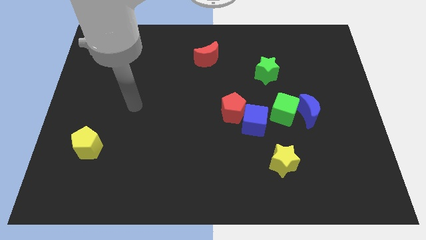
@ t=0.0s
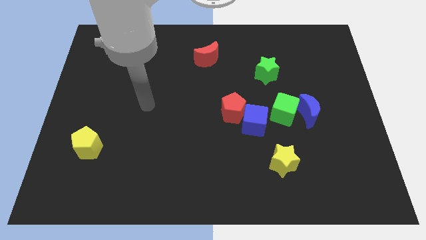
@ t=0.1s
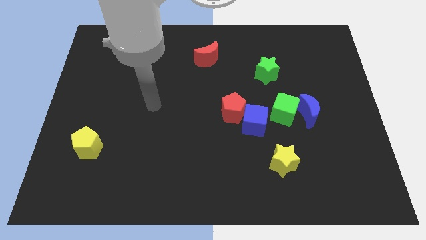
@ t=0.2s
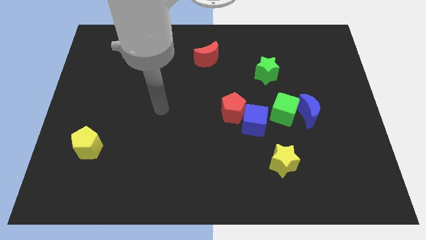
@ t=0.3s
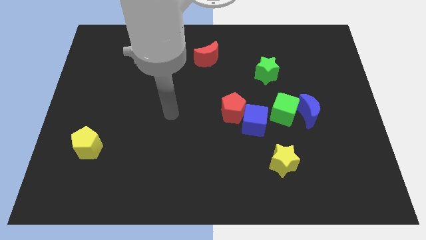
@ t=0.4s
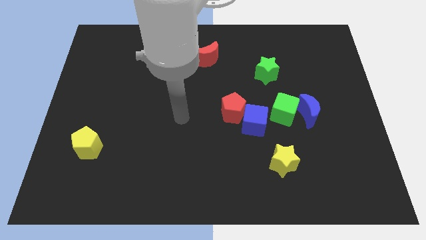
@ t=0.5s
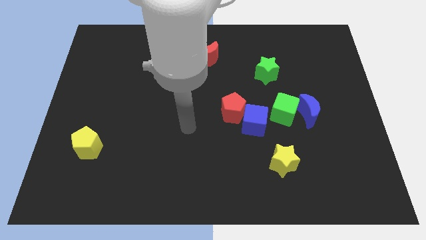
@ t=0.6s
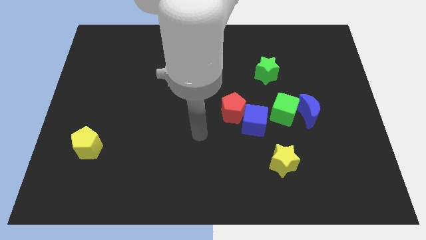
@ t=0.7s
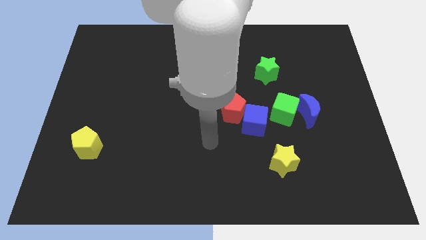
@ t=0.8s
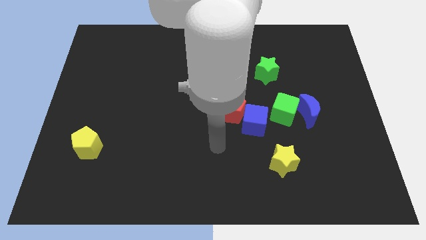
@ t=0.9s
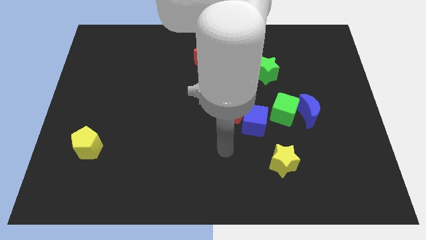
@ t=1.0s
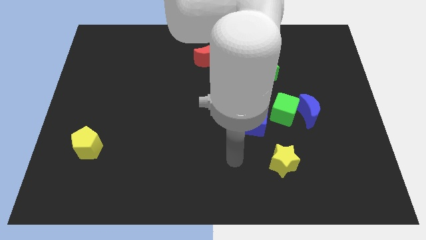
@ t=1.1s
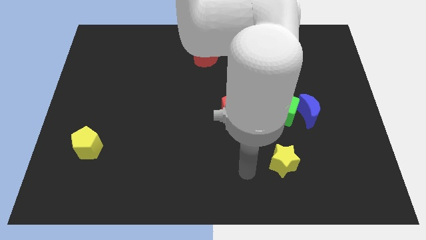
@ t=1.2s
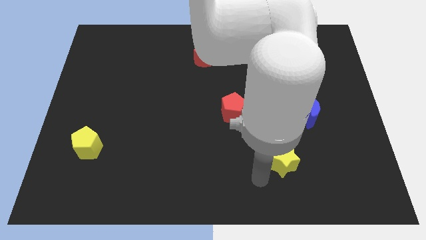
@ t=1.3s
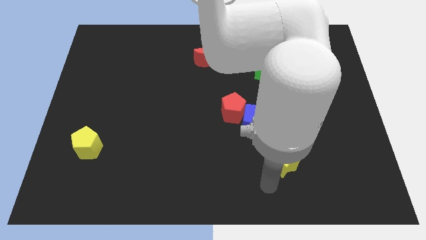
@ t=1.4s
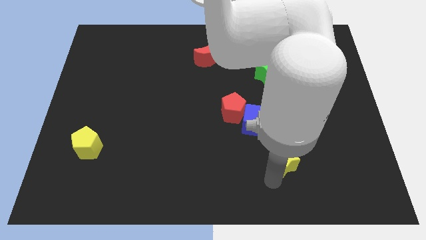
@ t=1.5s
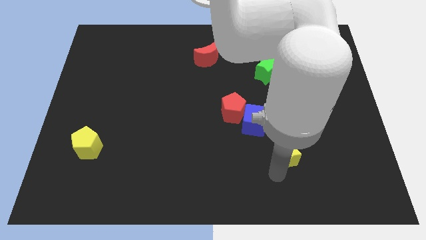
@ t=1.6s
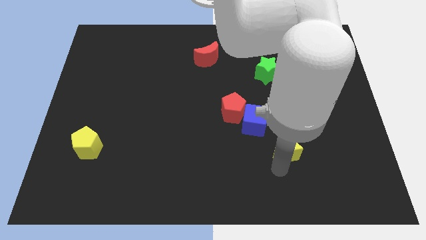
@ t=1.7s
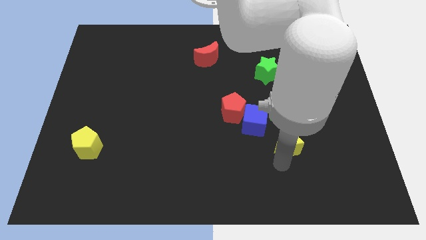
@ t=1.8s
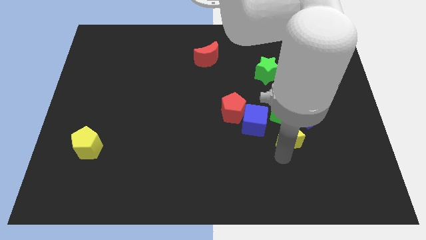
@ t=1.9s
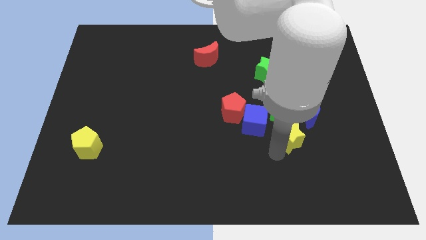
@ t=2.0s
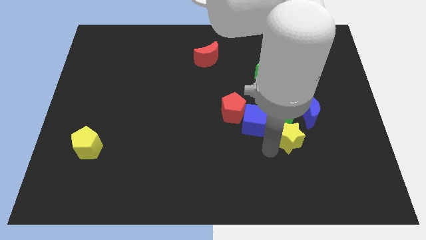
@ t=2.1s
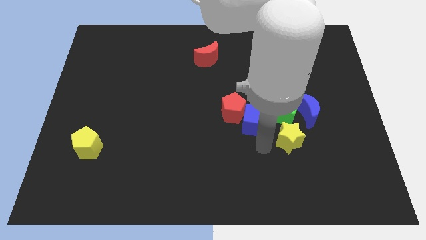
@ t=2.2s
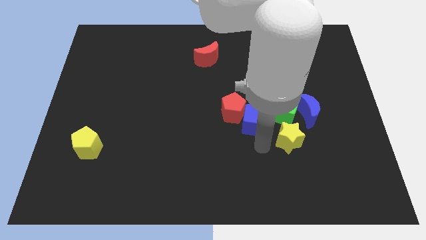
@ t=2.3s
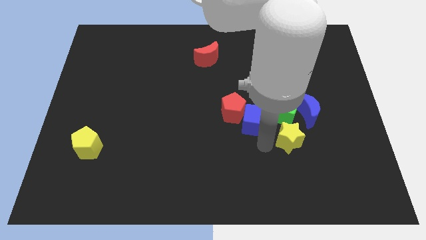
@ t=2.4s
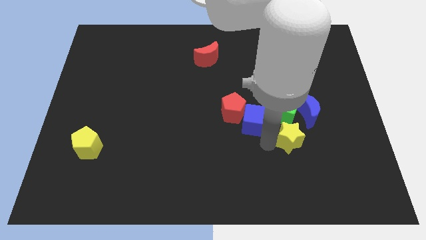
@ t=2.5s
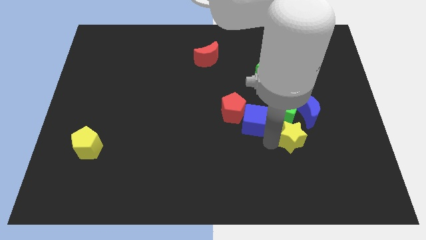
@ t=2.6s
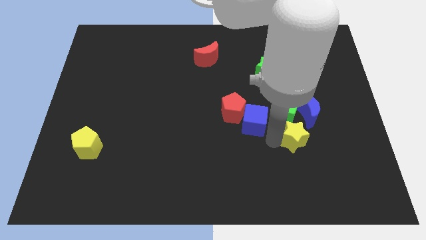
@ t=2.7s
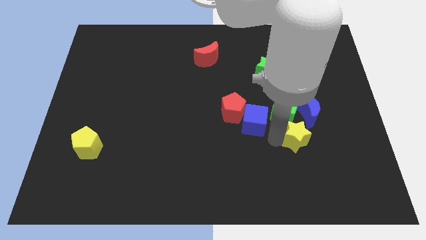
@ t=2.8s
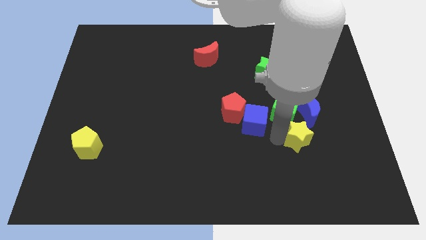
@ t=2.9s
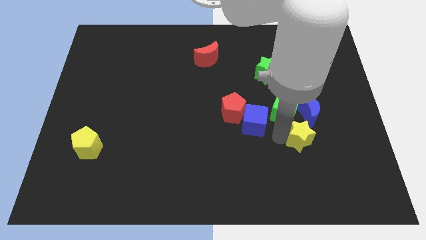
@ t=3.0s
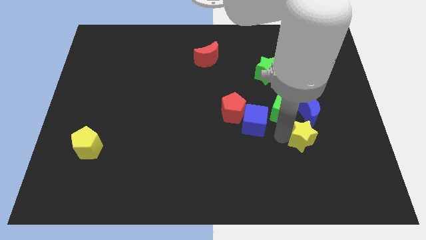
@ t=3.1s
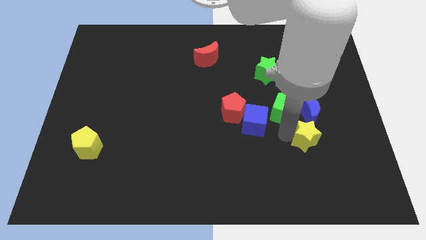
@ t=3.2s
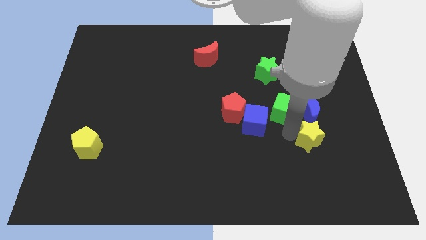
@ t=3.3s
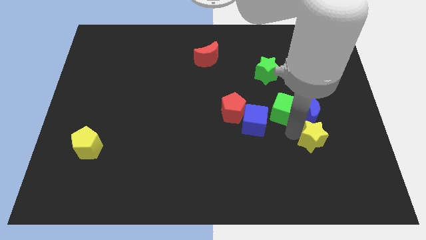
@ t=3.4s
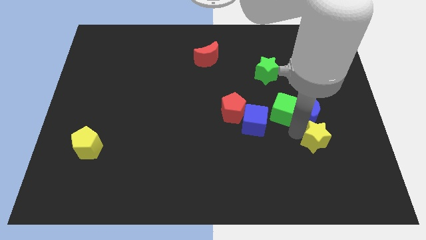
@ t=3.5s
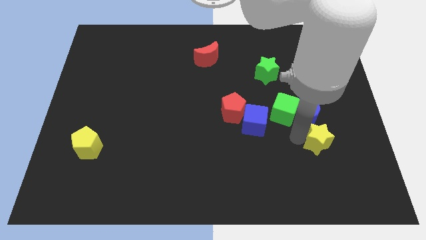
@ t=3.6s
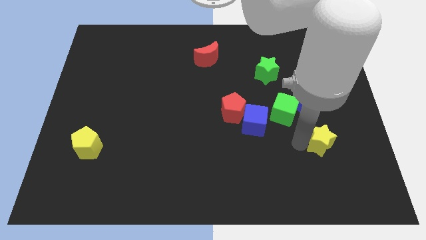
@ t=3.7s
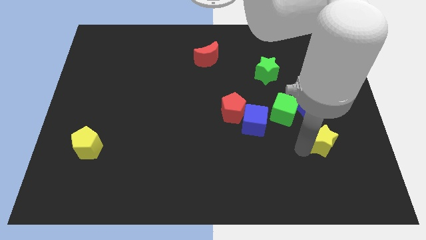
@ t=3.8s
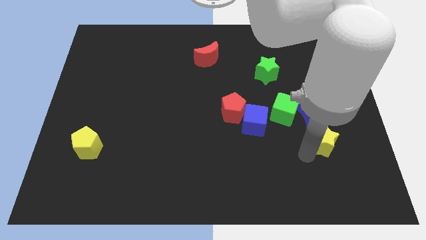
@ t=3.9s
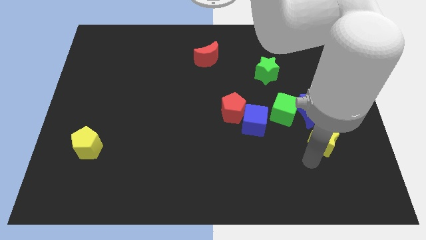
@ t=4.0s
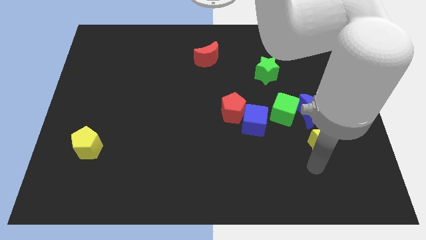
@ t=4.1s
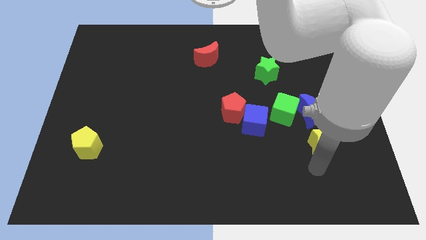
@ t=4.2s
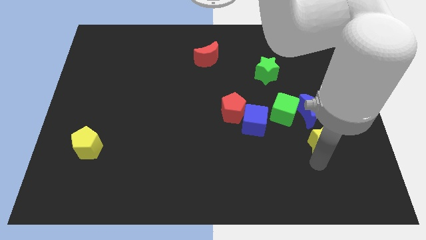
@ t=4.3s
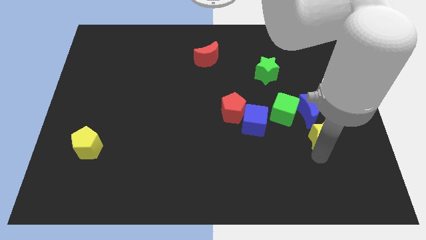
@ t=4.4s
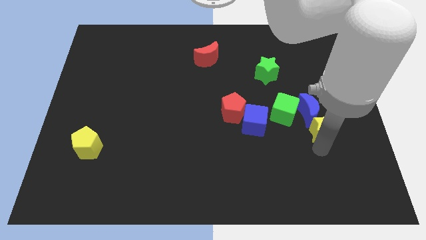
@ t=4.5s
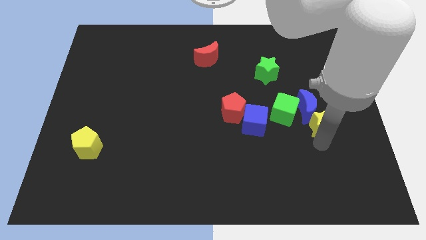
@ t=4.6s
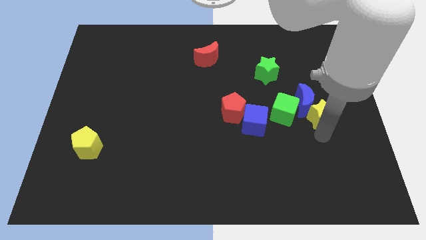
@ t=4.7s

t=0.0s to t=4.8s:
move the yellow star up a bit

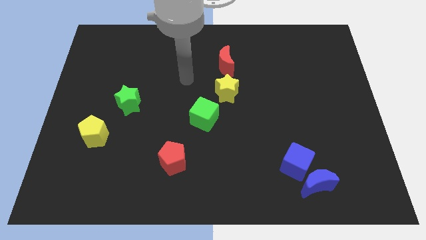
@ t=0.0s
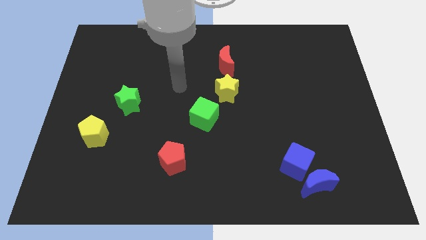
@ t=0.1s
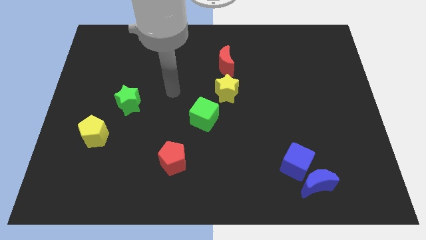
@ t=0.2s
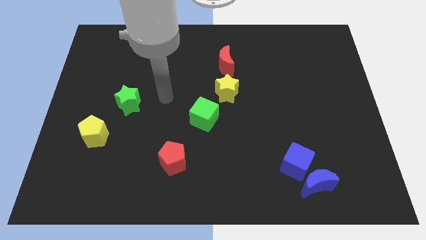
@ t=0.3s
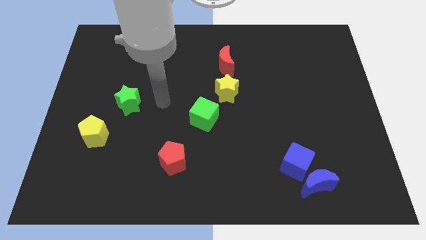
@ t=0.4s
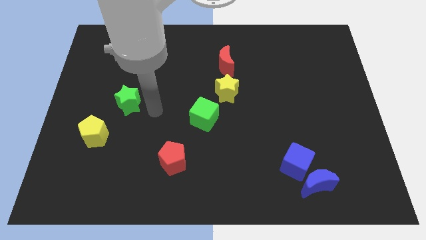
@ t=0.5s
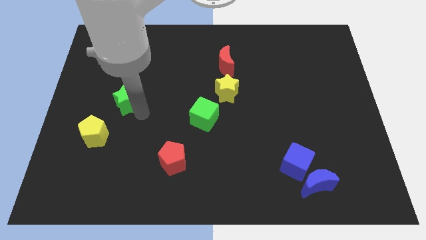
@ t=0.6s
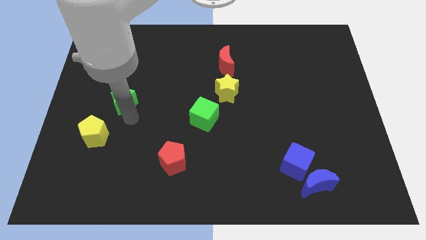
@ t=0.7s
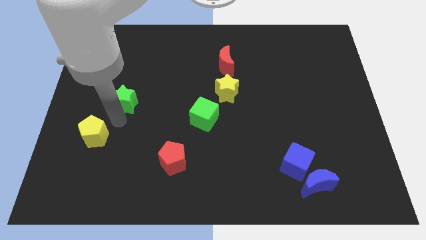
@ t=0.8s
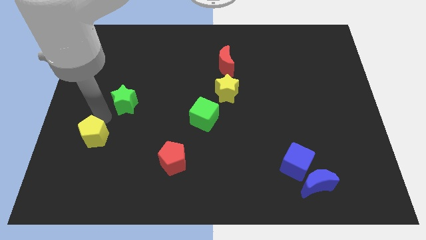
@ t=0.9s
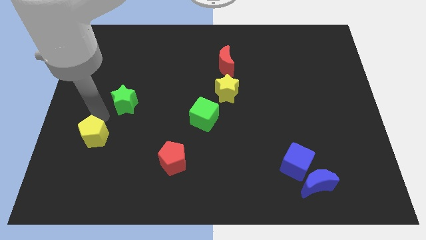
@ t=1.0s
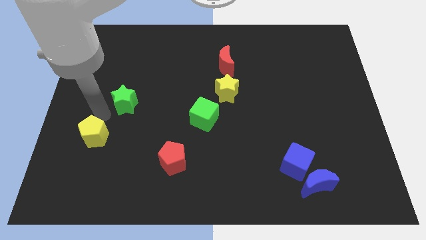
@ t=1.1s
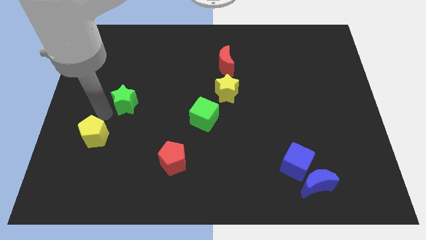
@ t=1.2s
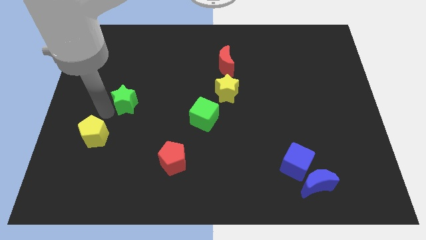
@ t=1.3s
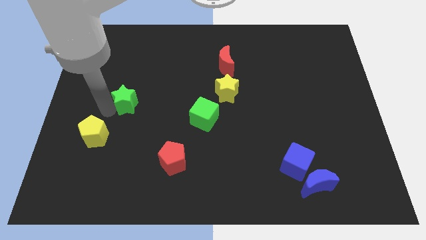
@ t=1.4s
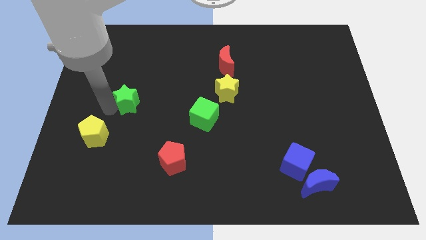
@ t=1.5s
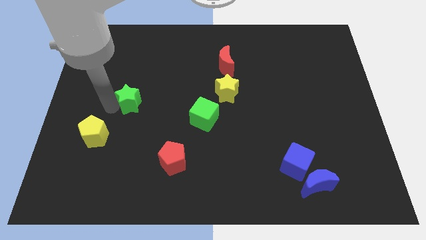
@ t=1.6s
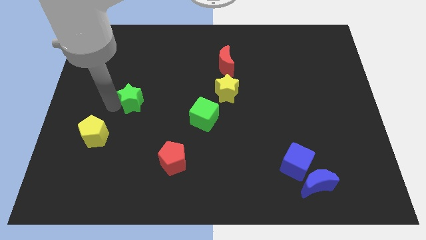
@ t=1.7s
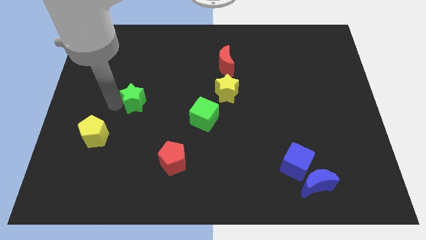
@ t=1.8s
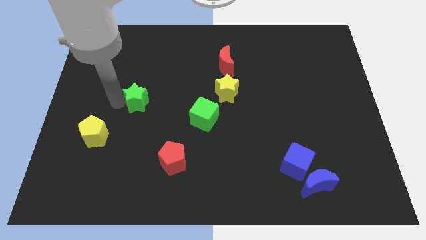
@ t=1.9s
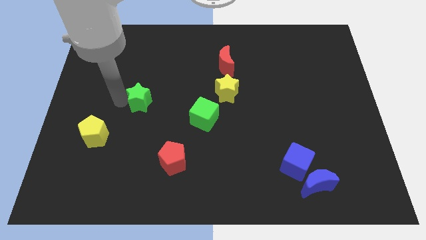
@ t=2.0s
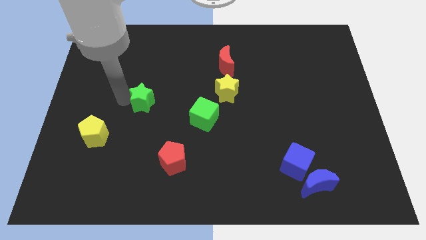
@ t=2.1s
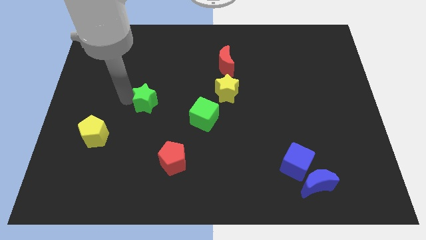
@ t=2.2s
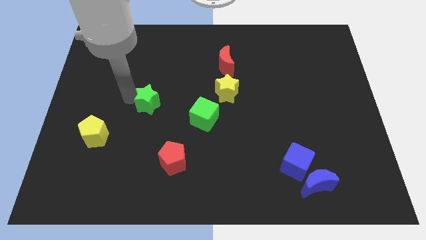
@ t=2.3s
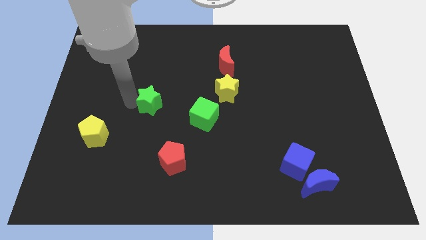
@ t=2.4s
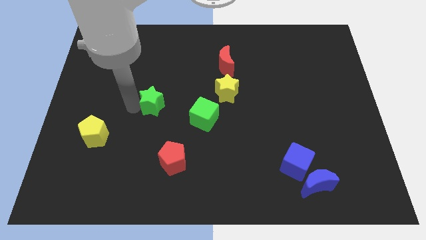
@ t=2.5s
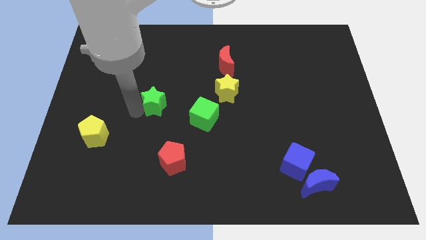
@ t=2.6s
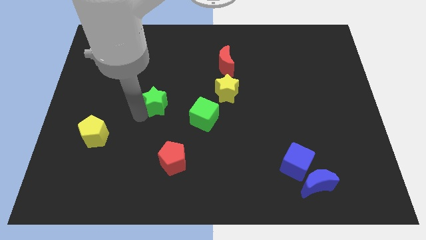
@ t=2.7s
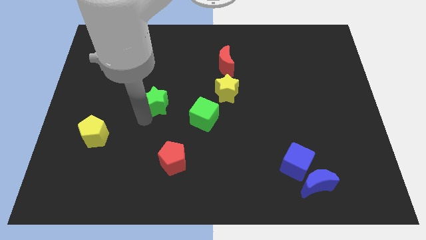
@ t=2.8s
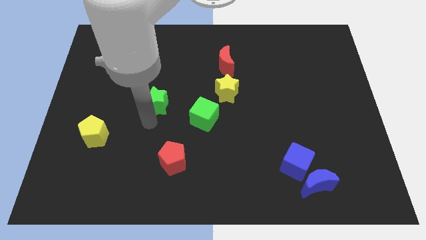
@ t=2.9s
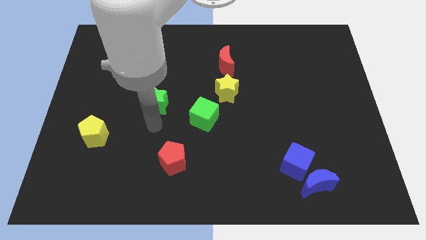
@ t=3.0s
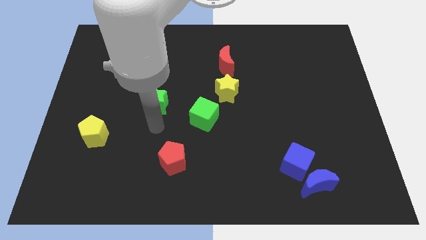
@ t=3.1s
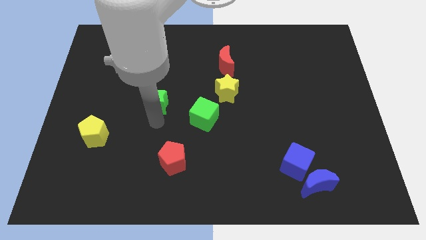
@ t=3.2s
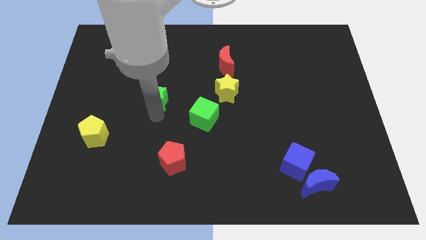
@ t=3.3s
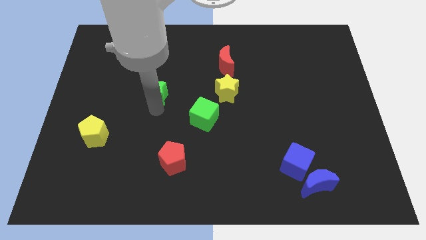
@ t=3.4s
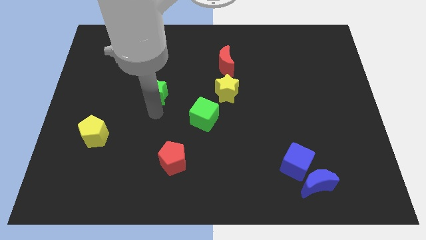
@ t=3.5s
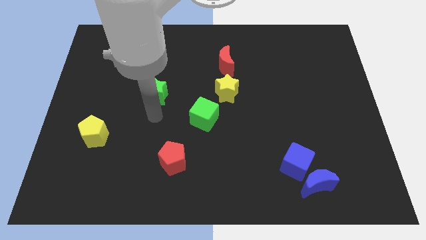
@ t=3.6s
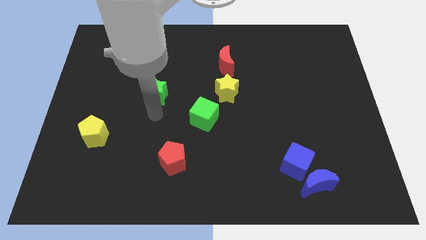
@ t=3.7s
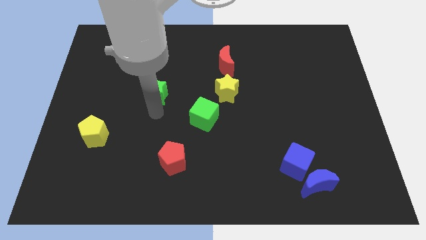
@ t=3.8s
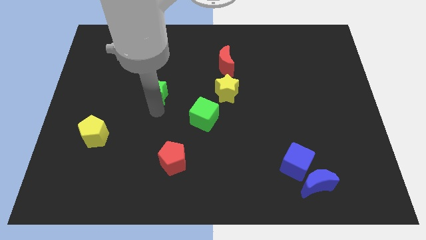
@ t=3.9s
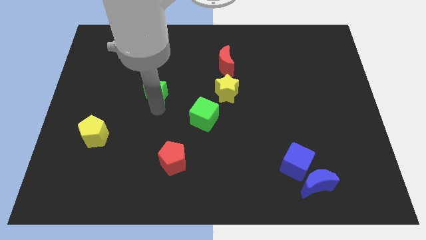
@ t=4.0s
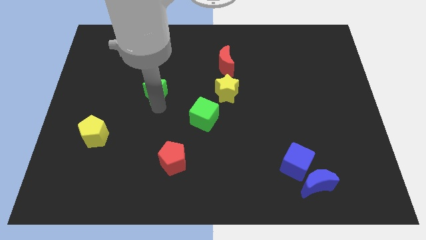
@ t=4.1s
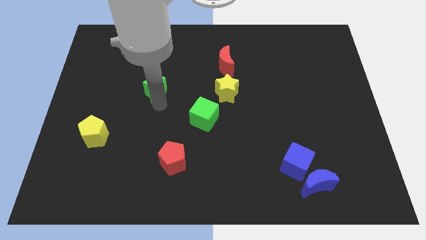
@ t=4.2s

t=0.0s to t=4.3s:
push the green star slightly upwards and right diagonally
